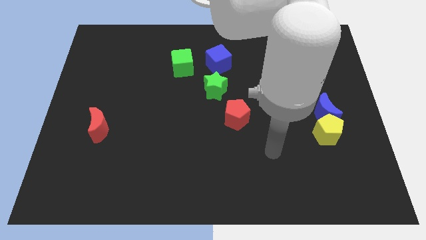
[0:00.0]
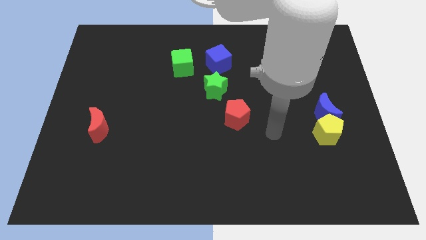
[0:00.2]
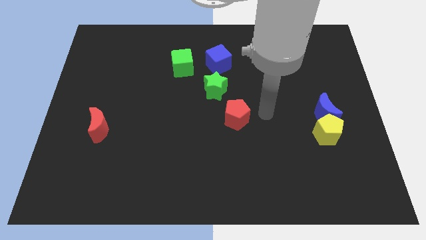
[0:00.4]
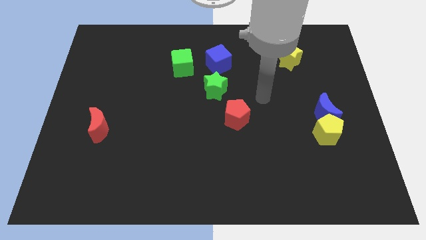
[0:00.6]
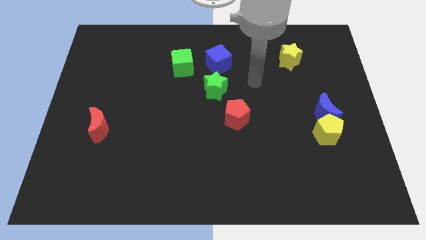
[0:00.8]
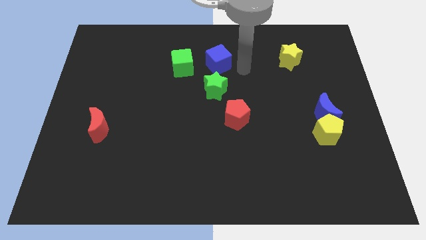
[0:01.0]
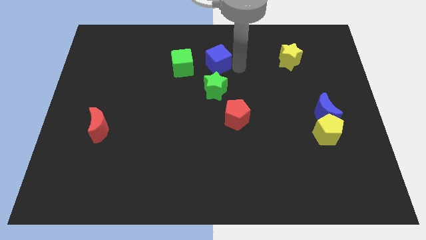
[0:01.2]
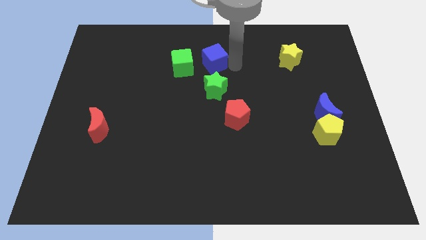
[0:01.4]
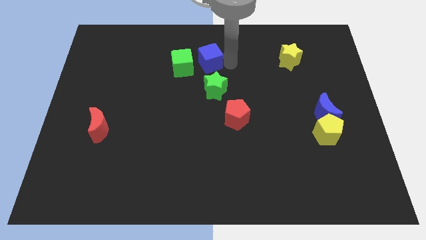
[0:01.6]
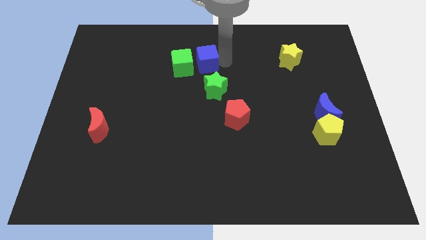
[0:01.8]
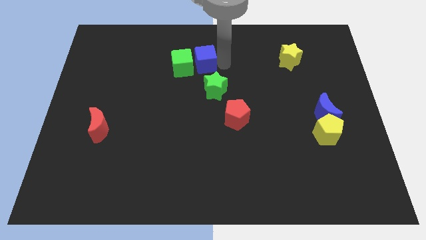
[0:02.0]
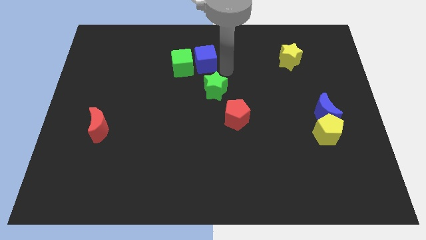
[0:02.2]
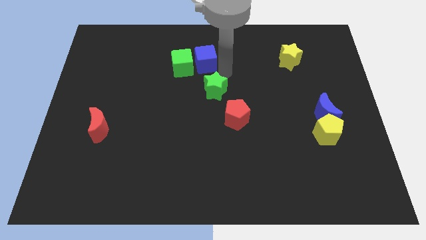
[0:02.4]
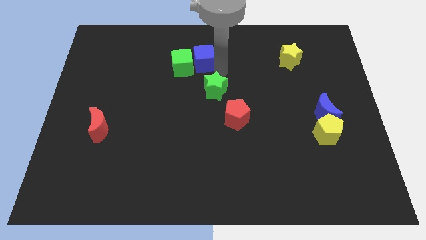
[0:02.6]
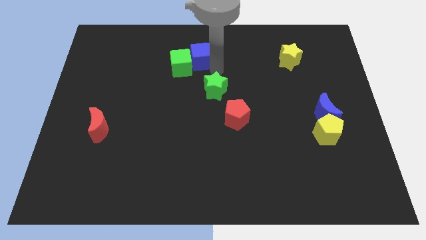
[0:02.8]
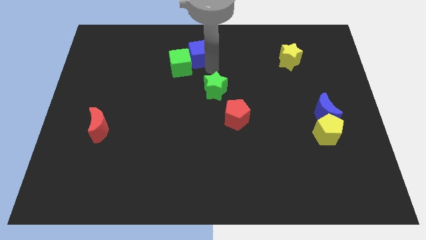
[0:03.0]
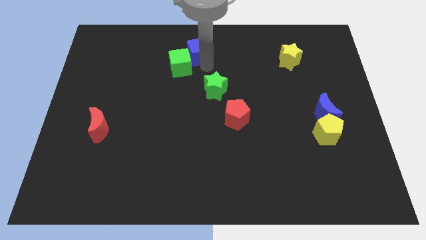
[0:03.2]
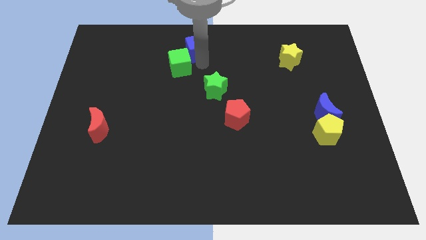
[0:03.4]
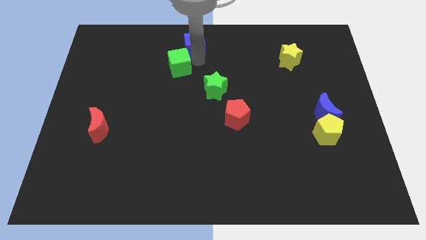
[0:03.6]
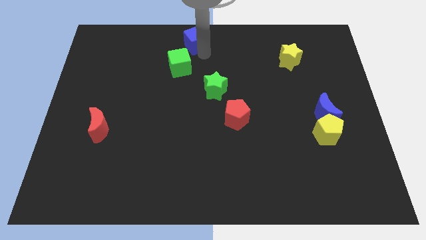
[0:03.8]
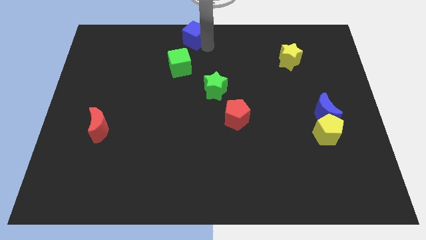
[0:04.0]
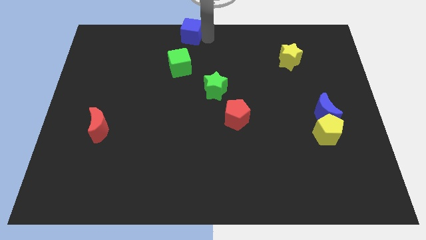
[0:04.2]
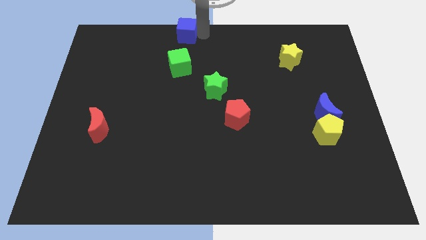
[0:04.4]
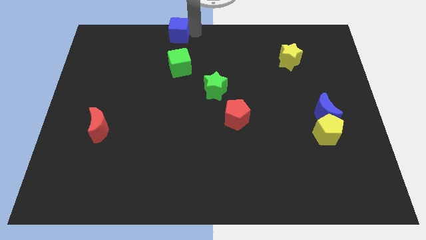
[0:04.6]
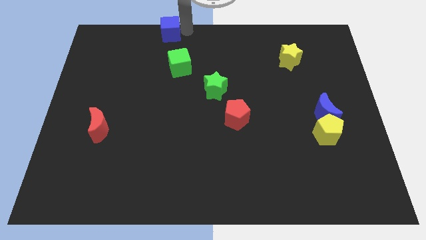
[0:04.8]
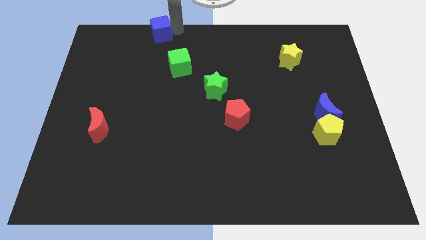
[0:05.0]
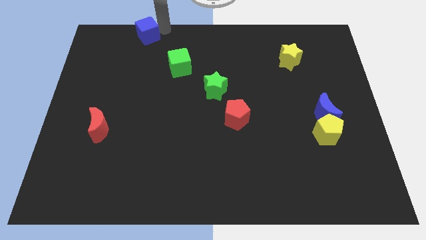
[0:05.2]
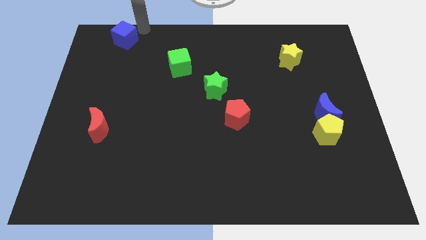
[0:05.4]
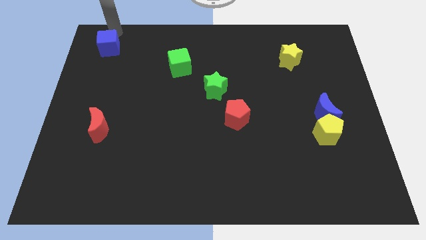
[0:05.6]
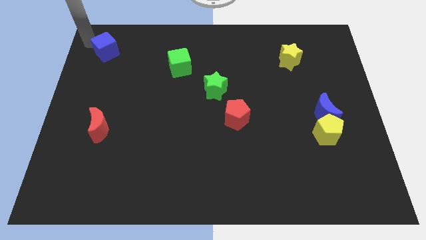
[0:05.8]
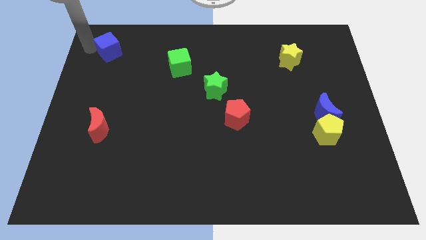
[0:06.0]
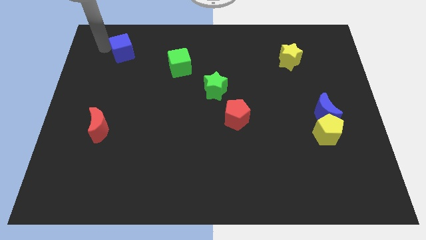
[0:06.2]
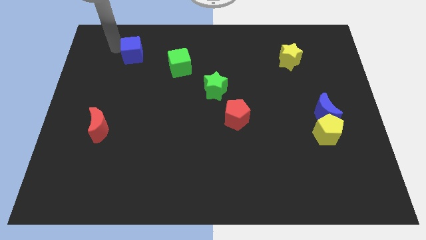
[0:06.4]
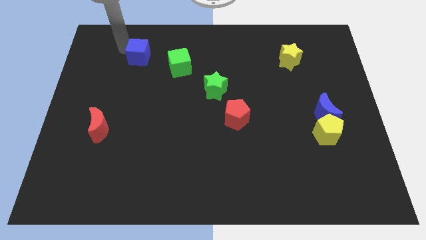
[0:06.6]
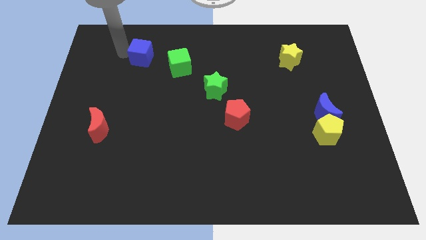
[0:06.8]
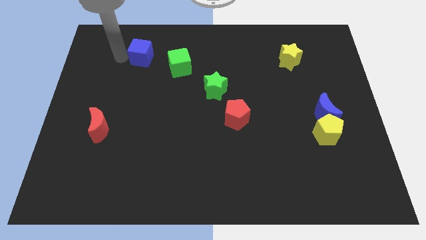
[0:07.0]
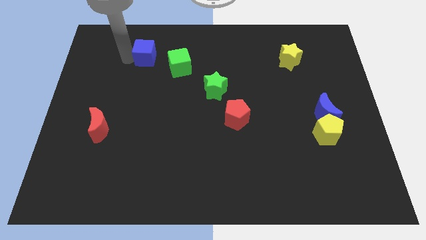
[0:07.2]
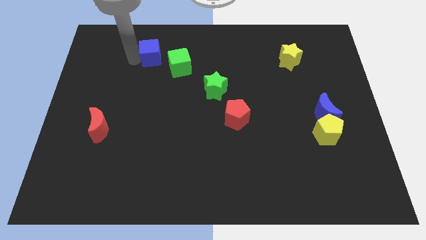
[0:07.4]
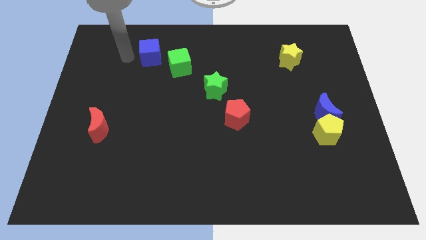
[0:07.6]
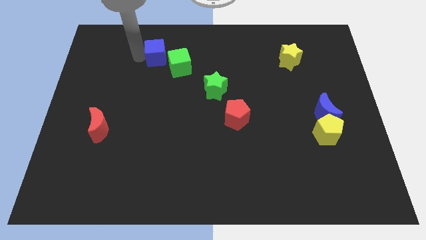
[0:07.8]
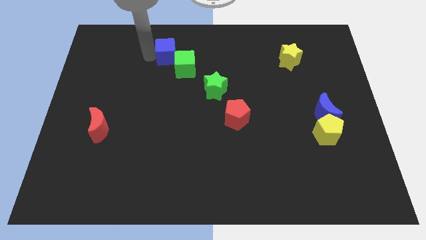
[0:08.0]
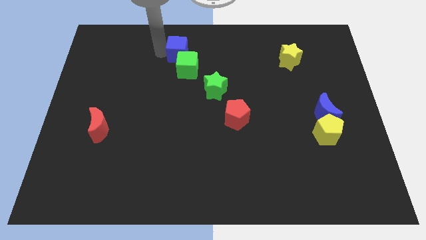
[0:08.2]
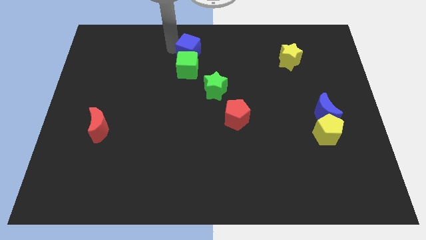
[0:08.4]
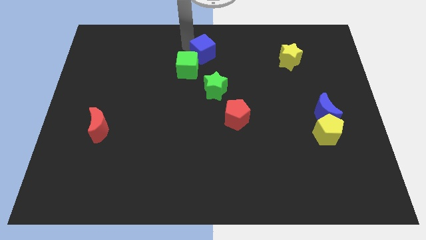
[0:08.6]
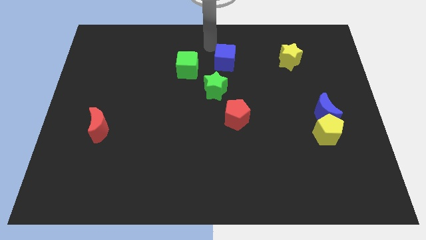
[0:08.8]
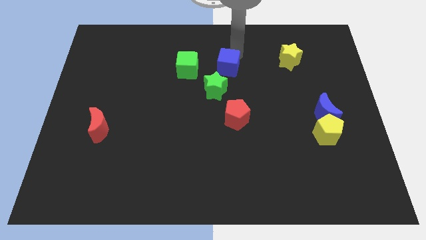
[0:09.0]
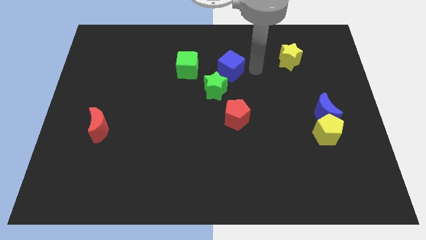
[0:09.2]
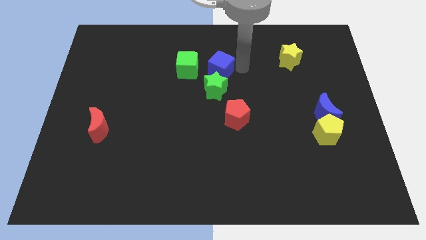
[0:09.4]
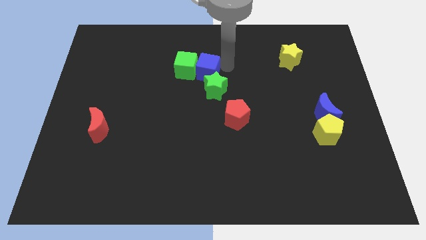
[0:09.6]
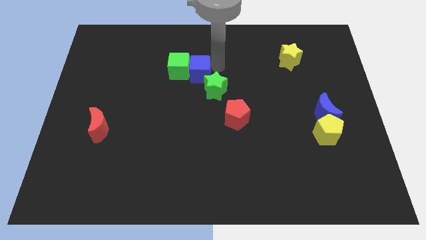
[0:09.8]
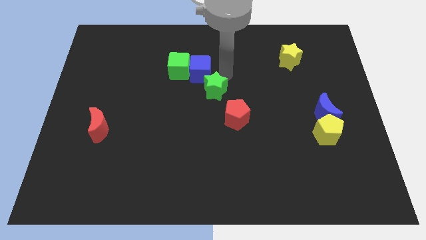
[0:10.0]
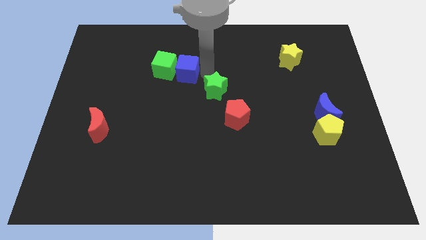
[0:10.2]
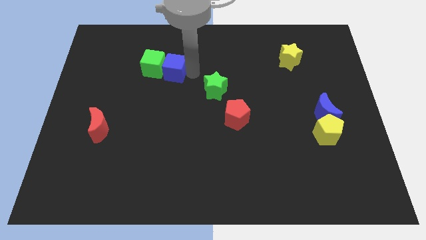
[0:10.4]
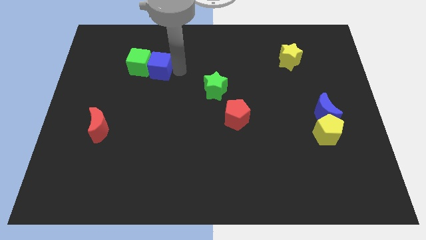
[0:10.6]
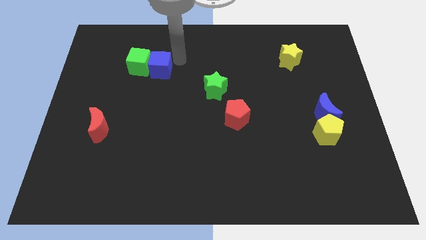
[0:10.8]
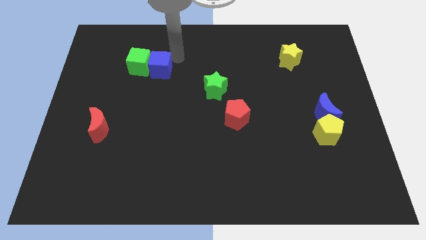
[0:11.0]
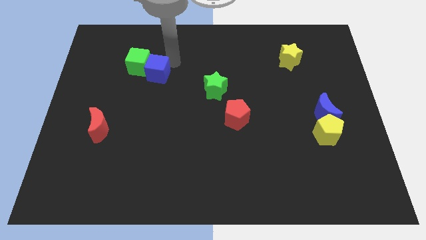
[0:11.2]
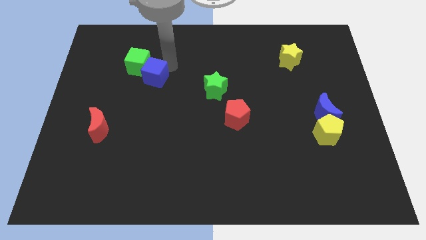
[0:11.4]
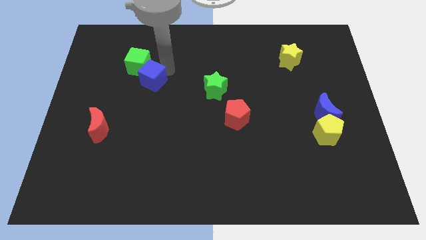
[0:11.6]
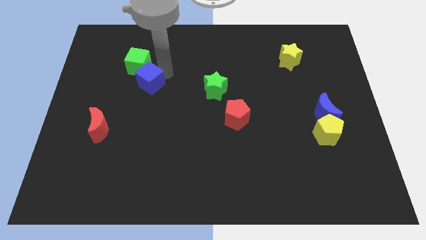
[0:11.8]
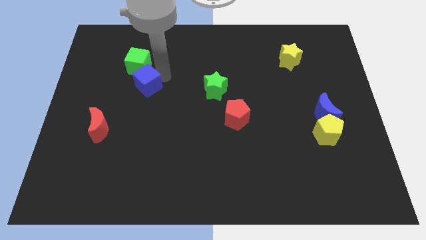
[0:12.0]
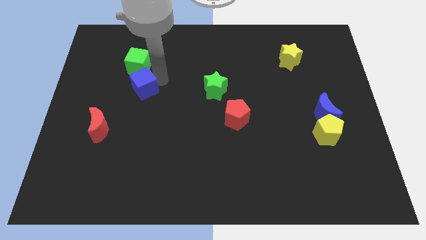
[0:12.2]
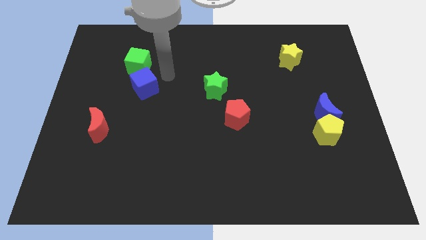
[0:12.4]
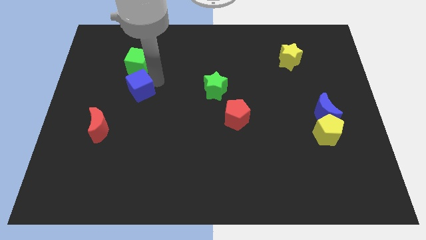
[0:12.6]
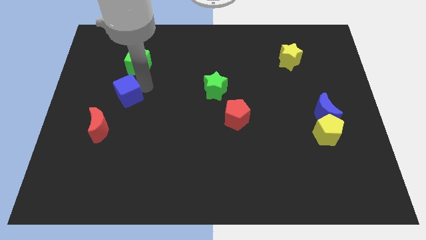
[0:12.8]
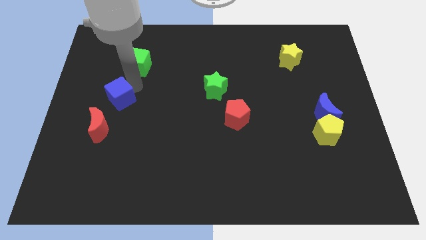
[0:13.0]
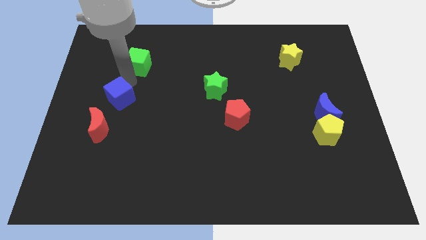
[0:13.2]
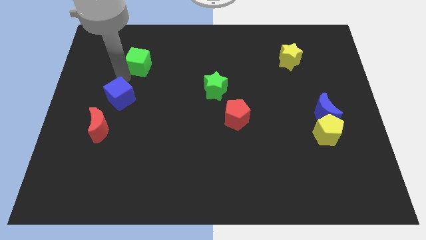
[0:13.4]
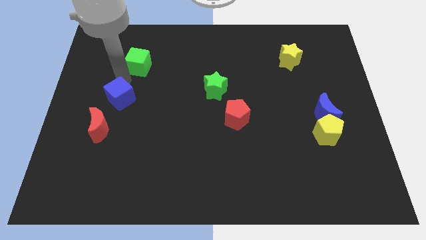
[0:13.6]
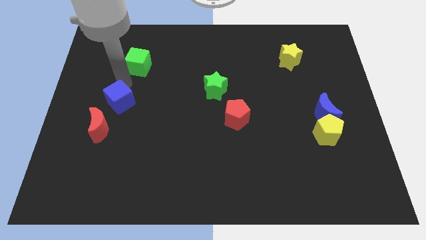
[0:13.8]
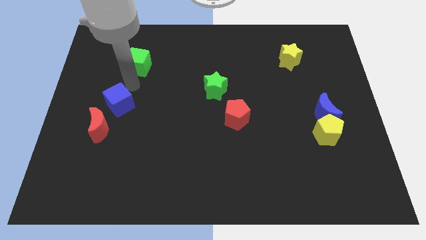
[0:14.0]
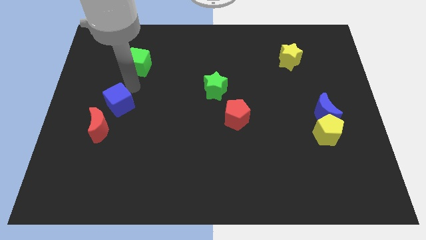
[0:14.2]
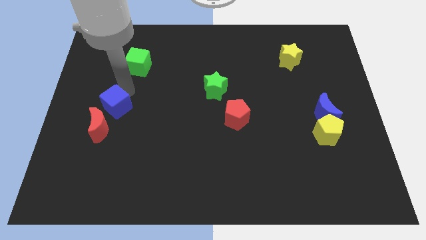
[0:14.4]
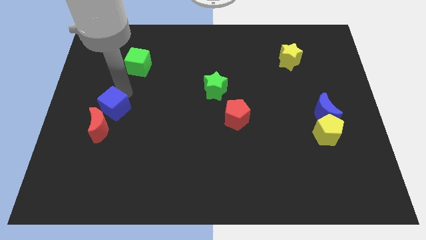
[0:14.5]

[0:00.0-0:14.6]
push the blue cube close to the red moon

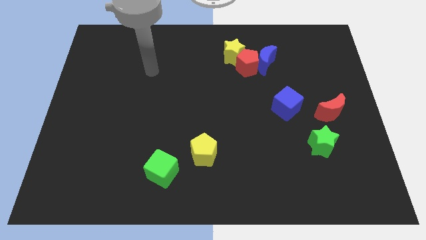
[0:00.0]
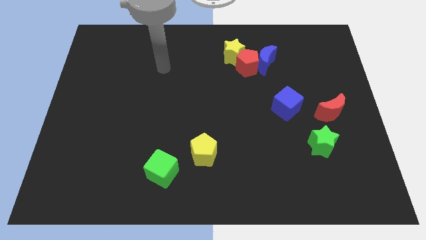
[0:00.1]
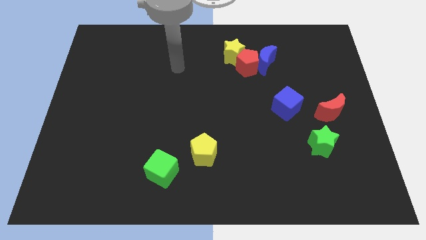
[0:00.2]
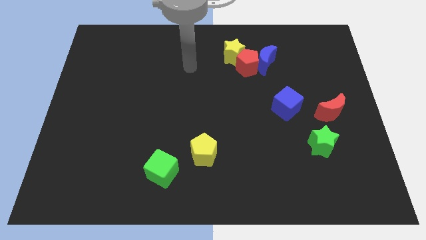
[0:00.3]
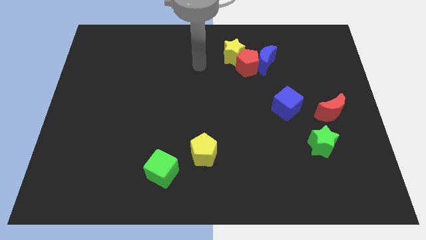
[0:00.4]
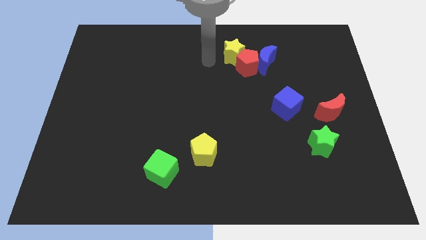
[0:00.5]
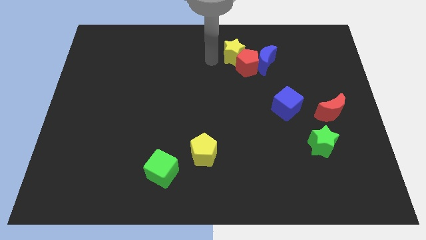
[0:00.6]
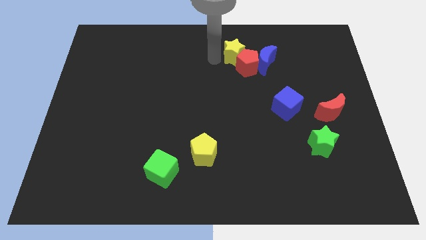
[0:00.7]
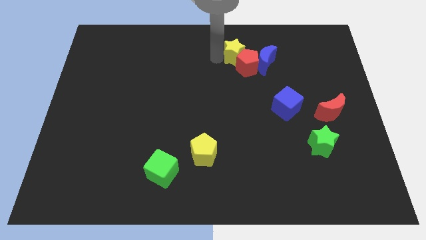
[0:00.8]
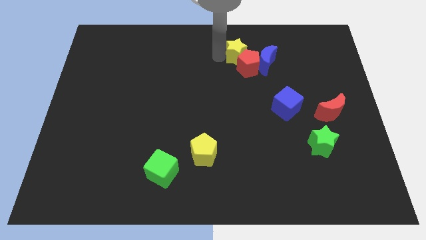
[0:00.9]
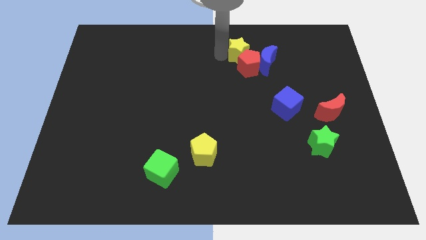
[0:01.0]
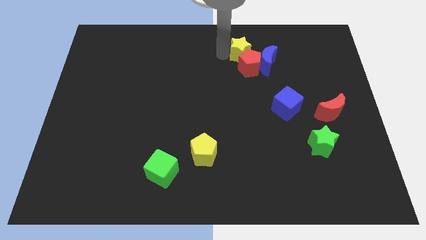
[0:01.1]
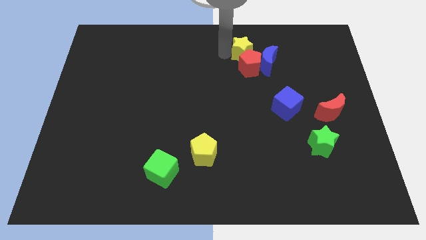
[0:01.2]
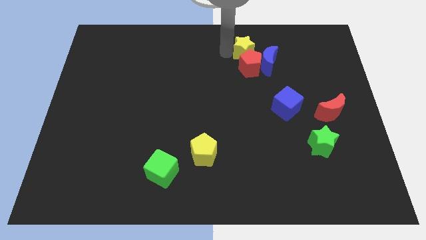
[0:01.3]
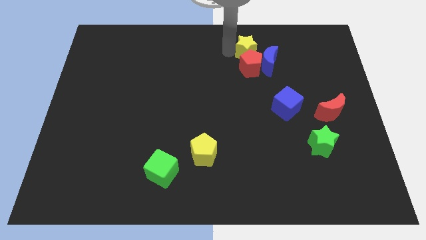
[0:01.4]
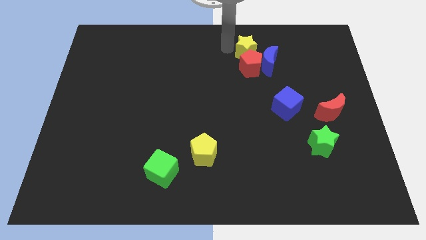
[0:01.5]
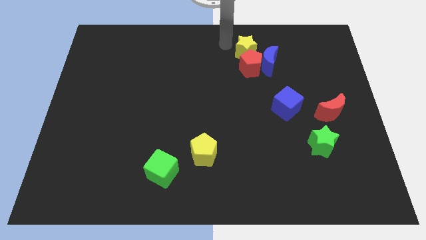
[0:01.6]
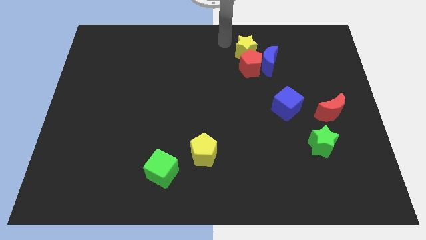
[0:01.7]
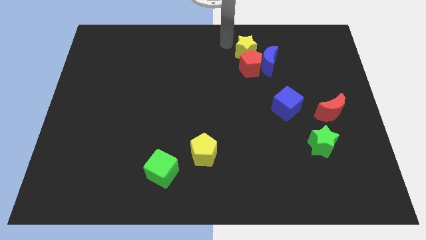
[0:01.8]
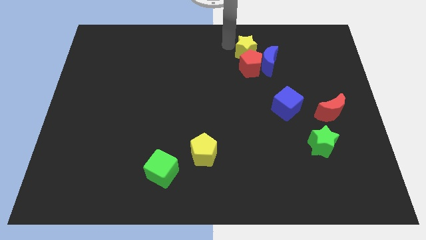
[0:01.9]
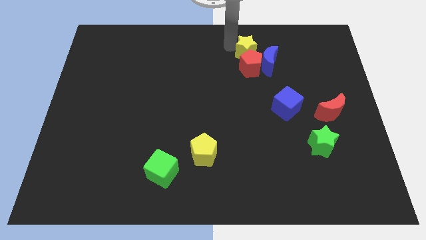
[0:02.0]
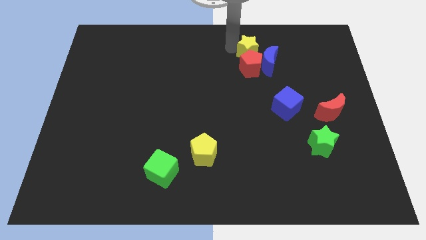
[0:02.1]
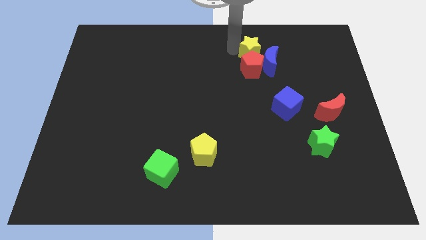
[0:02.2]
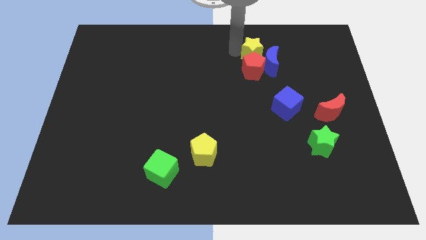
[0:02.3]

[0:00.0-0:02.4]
put the yellow star towards the blue moon
